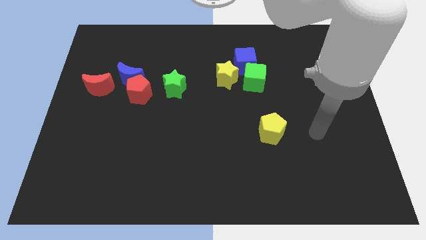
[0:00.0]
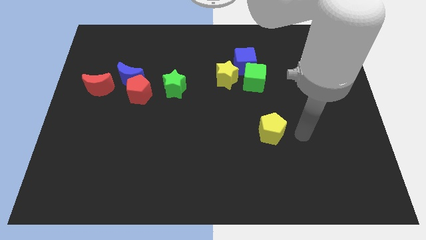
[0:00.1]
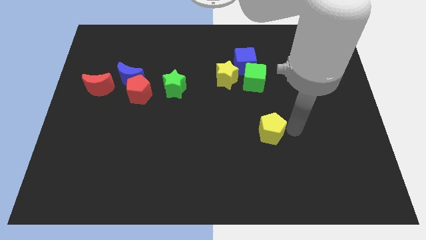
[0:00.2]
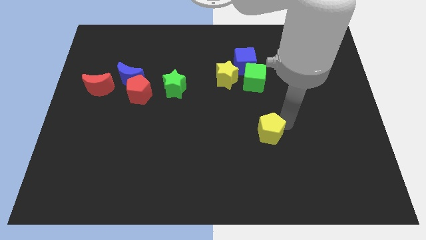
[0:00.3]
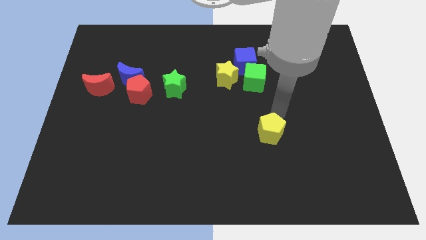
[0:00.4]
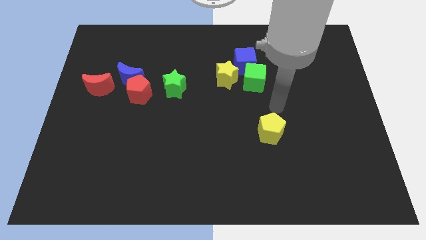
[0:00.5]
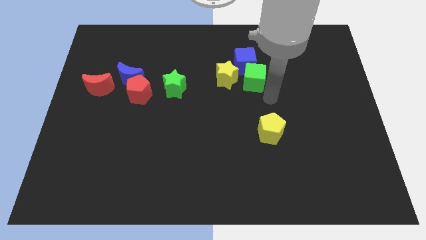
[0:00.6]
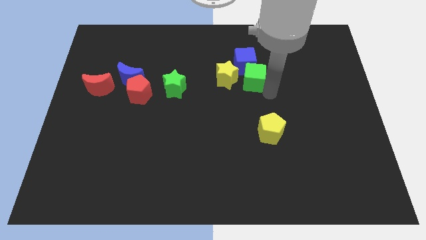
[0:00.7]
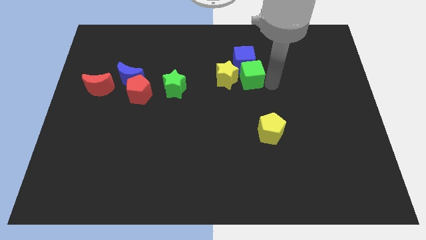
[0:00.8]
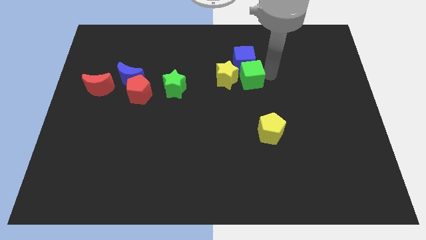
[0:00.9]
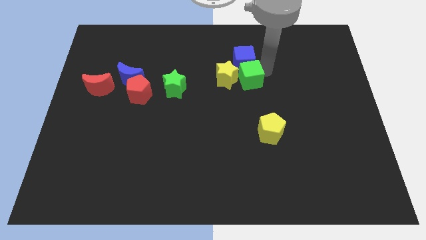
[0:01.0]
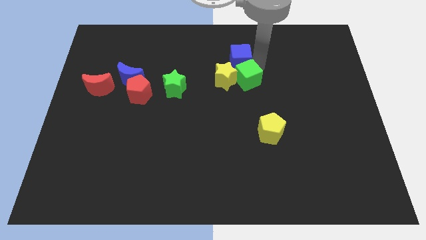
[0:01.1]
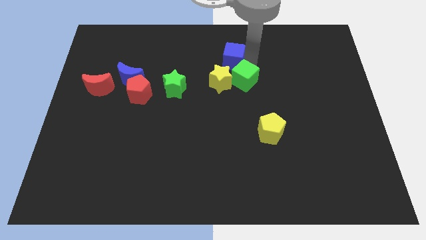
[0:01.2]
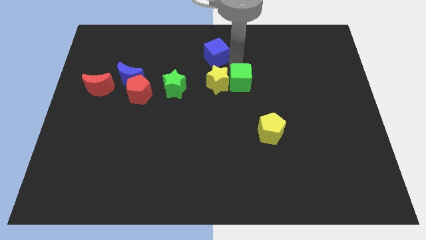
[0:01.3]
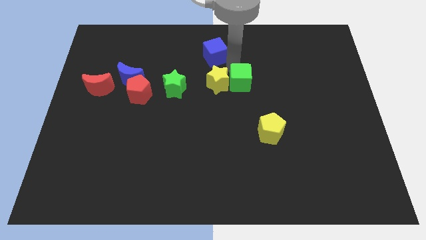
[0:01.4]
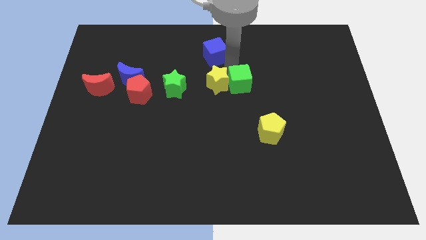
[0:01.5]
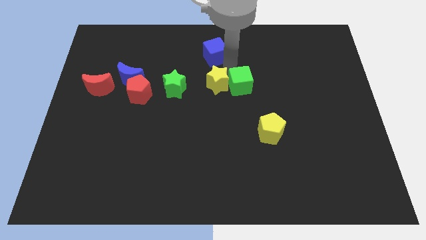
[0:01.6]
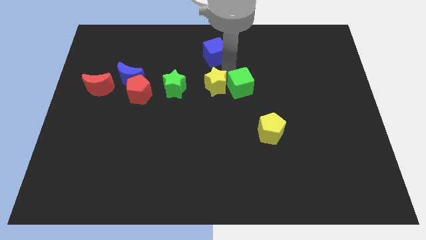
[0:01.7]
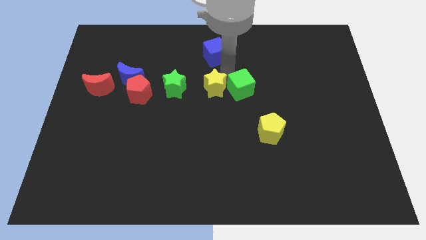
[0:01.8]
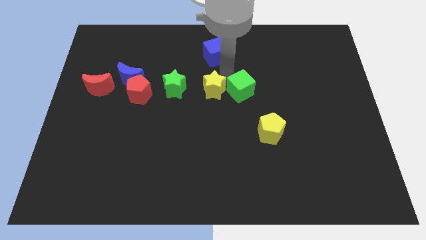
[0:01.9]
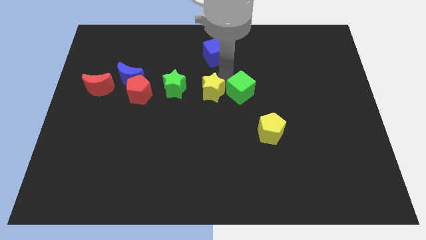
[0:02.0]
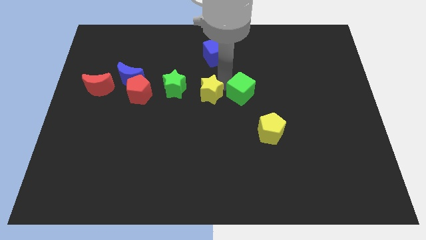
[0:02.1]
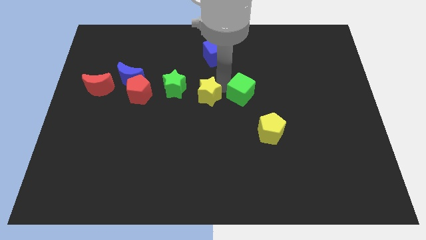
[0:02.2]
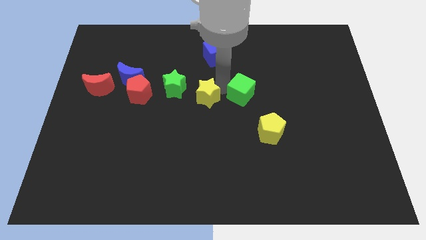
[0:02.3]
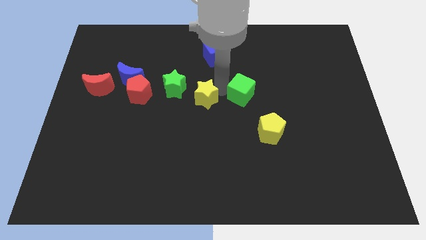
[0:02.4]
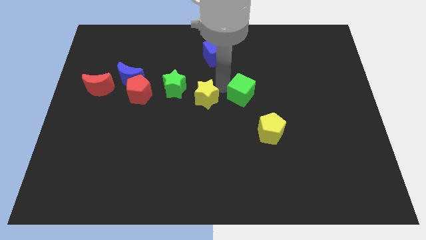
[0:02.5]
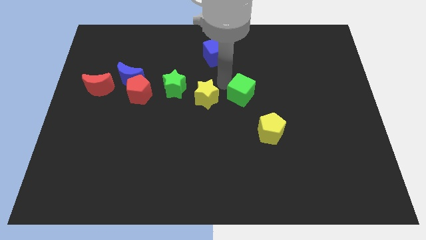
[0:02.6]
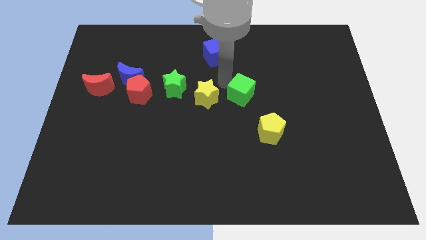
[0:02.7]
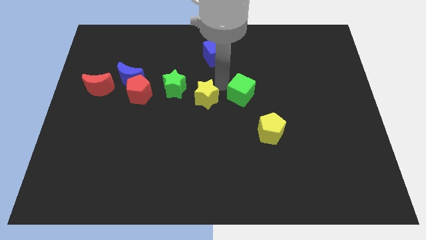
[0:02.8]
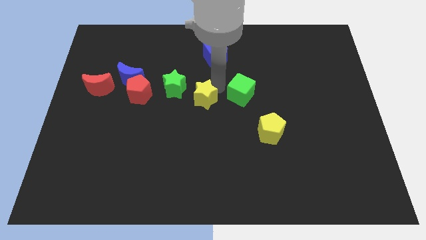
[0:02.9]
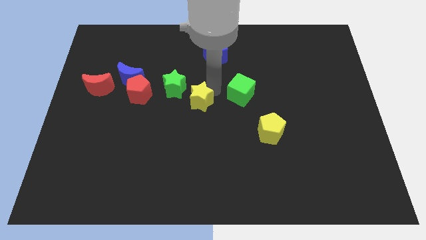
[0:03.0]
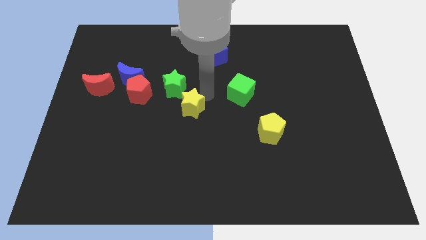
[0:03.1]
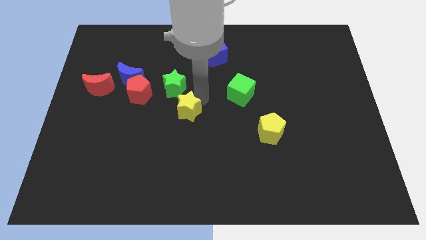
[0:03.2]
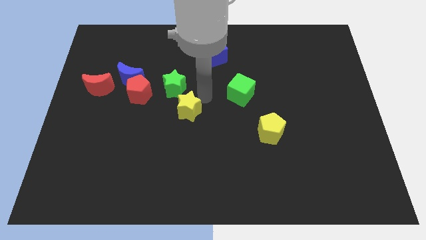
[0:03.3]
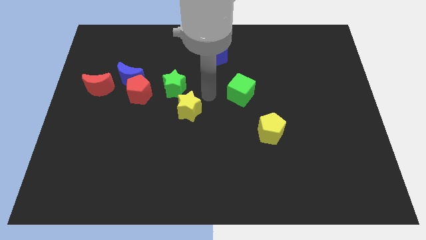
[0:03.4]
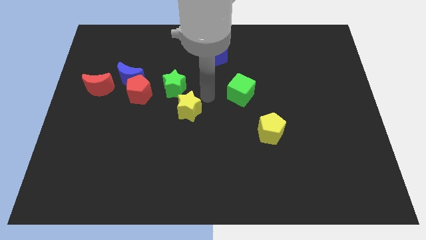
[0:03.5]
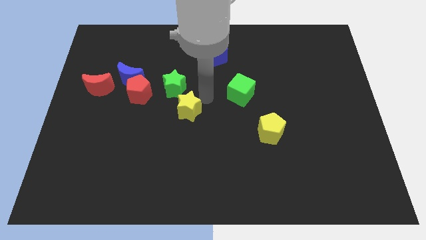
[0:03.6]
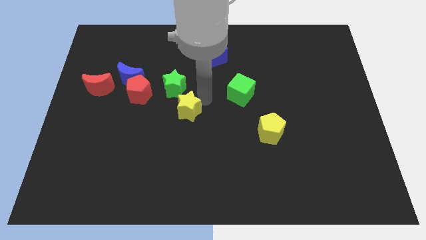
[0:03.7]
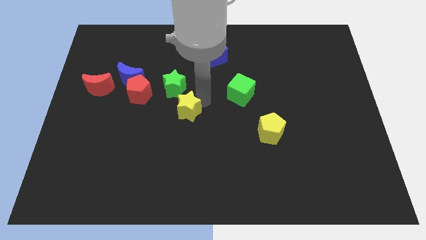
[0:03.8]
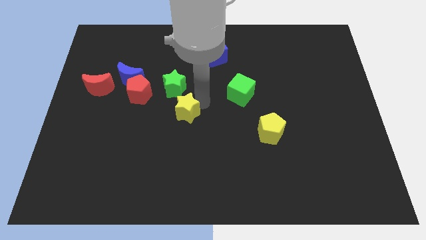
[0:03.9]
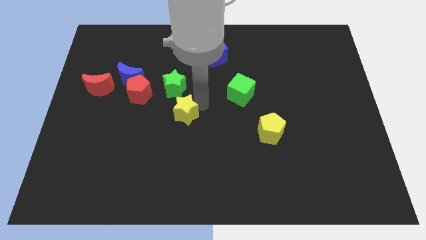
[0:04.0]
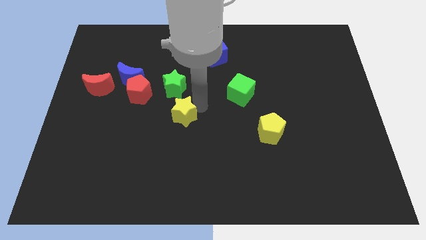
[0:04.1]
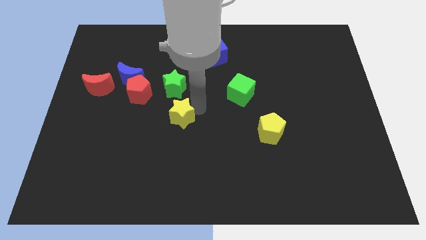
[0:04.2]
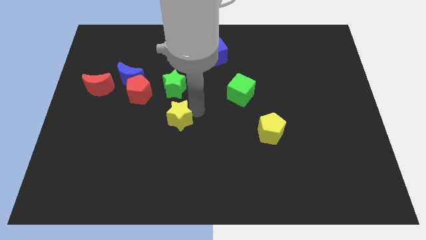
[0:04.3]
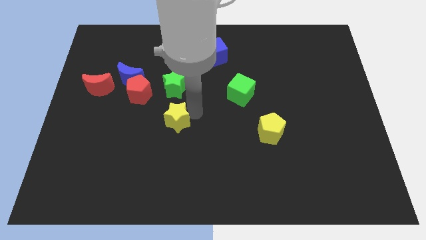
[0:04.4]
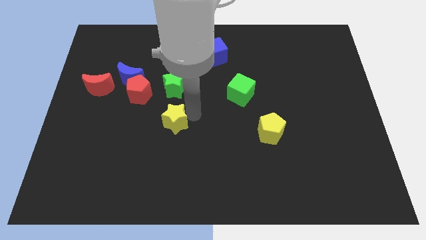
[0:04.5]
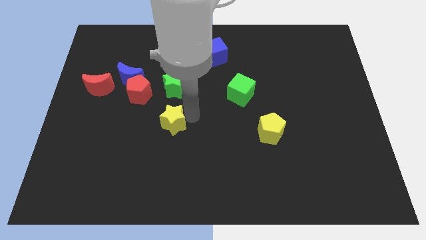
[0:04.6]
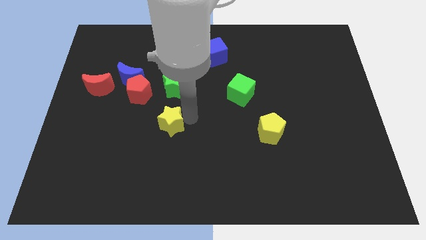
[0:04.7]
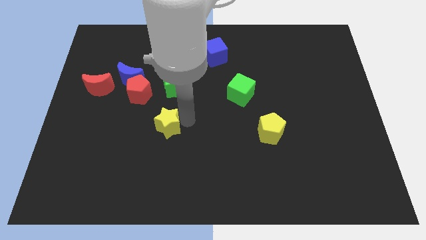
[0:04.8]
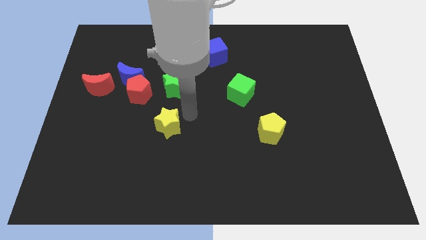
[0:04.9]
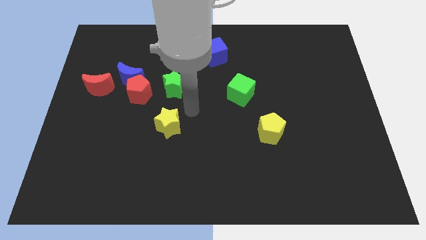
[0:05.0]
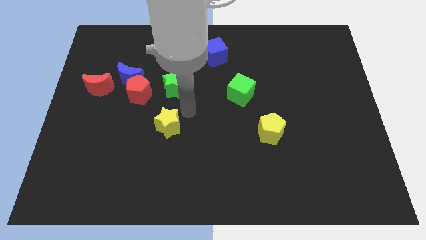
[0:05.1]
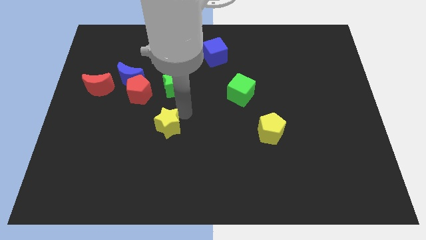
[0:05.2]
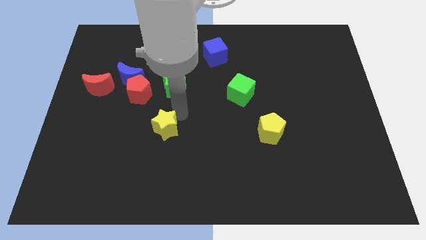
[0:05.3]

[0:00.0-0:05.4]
push the yellow star downwards and to the left diagonally

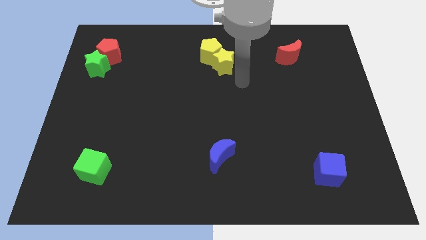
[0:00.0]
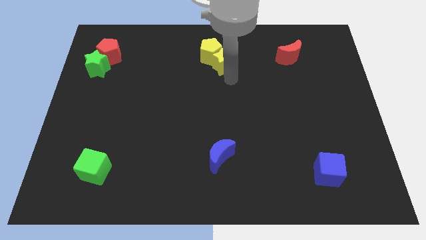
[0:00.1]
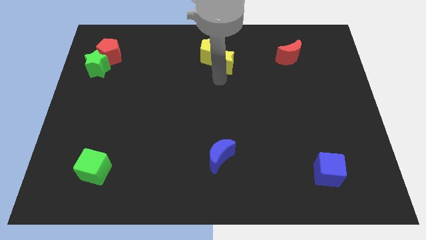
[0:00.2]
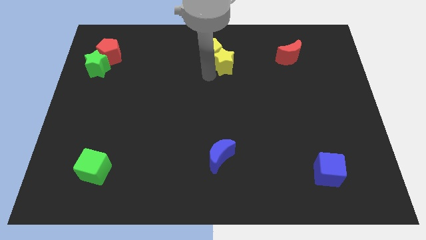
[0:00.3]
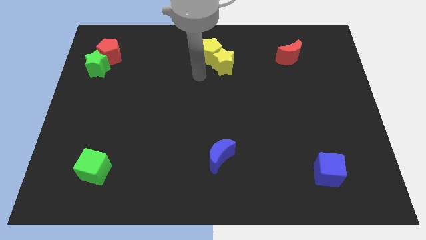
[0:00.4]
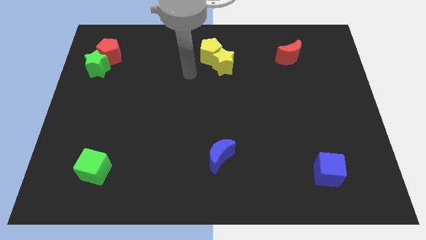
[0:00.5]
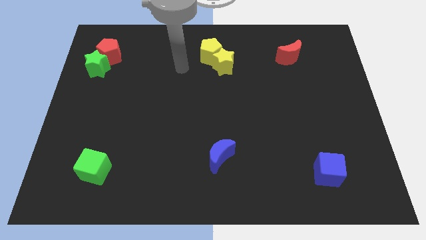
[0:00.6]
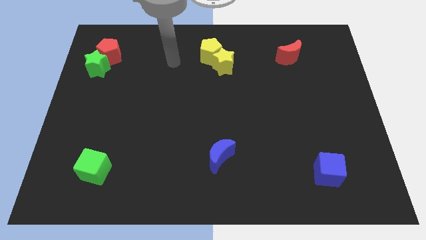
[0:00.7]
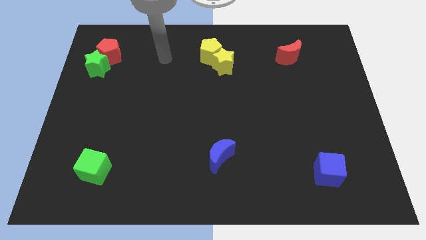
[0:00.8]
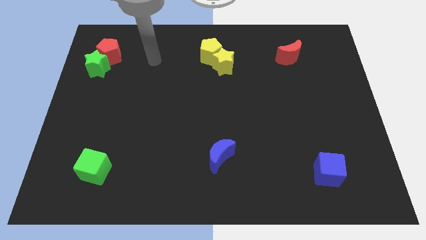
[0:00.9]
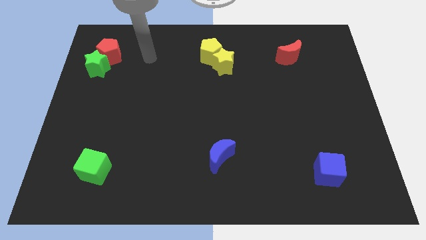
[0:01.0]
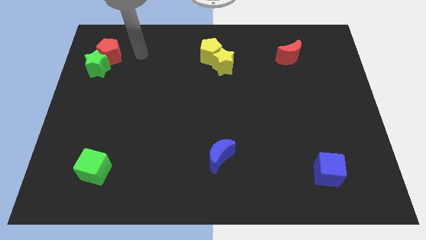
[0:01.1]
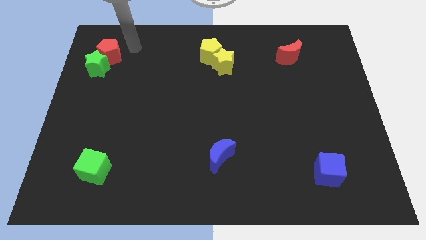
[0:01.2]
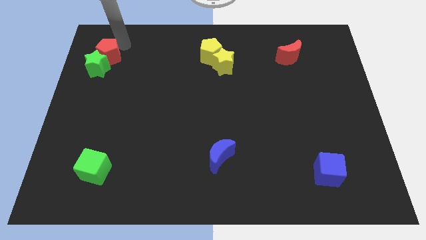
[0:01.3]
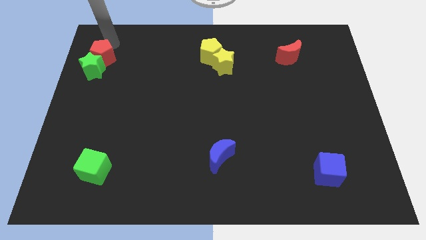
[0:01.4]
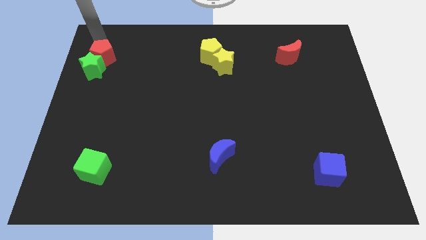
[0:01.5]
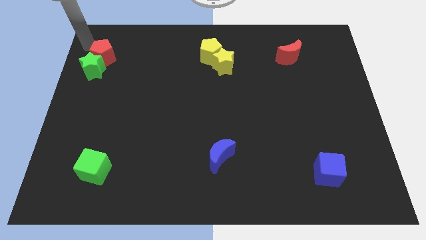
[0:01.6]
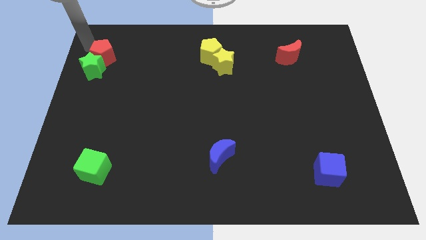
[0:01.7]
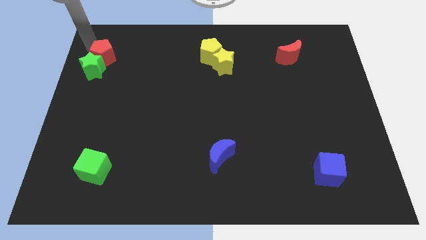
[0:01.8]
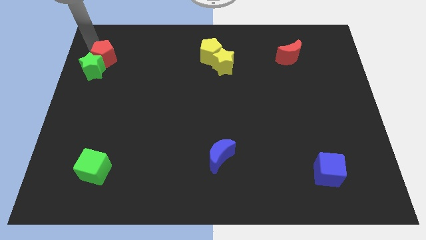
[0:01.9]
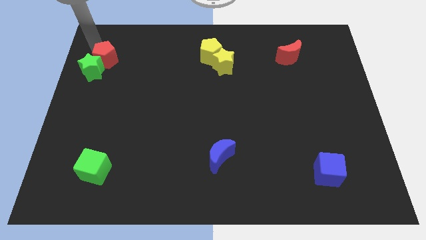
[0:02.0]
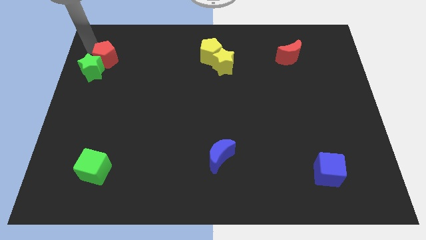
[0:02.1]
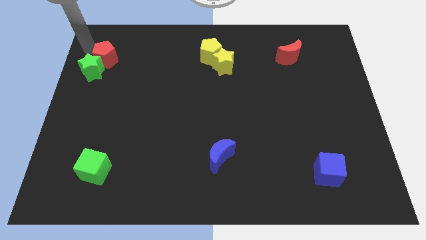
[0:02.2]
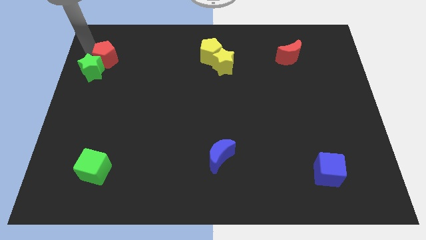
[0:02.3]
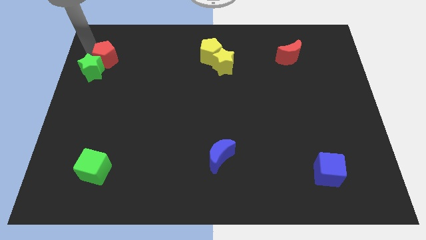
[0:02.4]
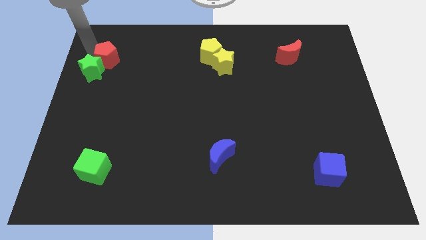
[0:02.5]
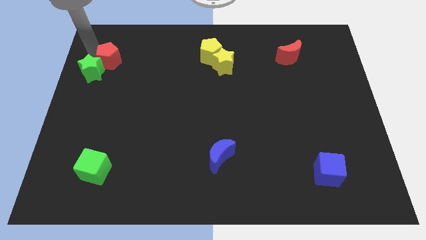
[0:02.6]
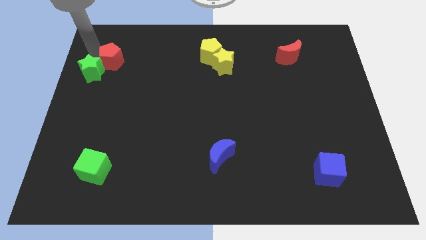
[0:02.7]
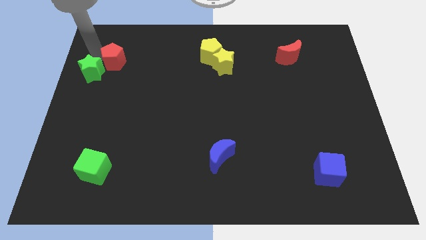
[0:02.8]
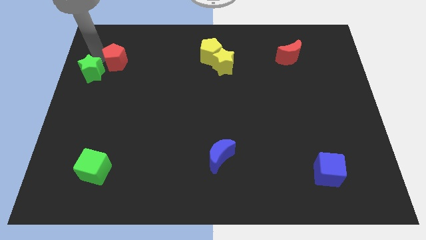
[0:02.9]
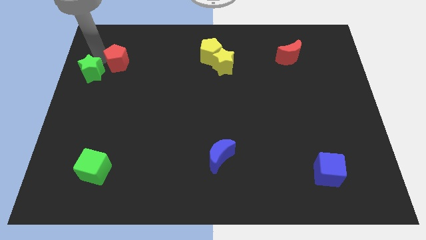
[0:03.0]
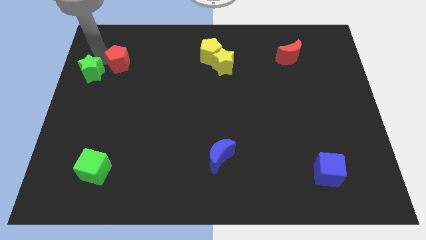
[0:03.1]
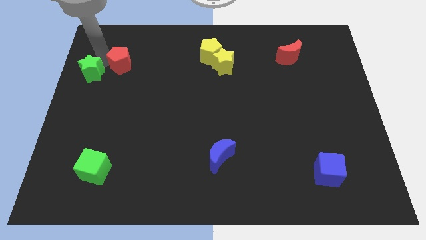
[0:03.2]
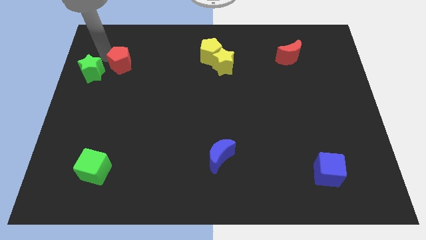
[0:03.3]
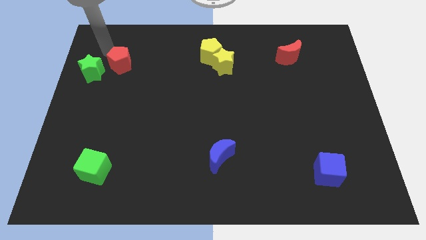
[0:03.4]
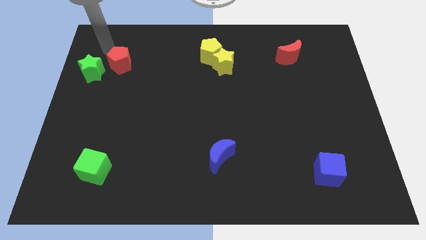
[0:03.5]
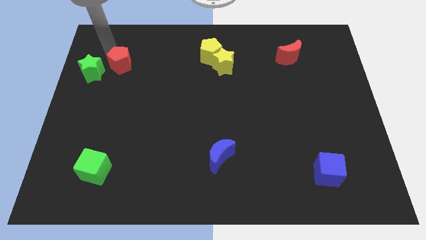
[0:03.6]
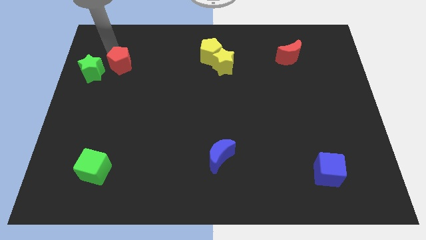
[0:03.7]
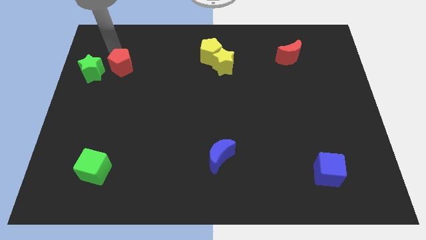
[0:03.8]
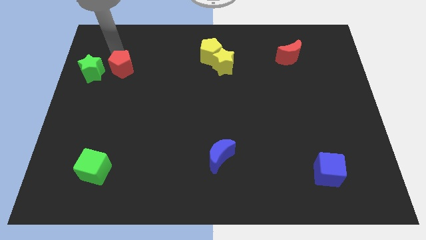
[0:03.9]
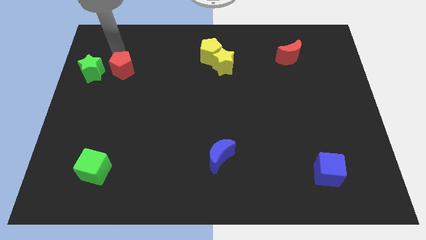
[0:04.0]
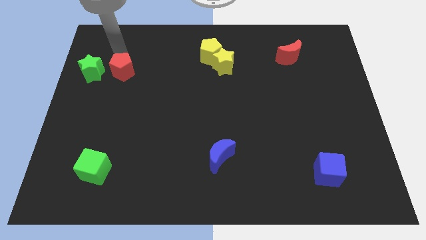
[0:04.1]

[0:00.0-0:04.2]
slide the red pentagon diagonally down and right slightly
